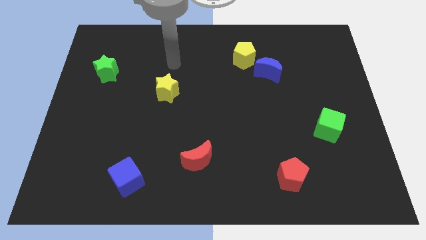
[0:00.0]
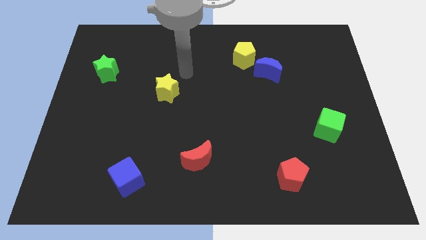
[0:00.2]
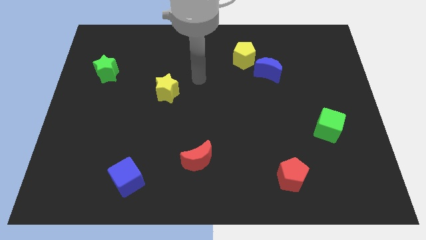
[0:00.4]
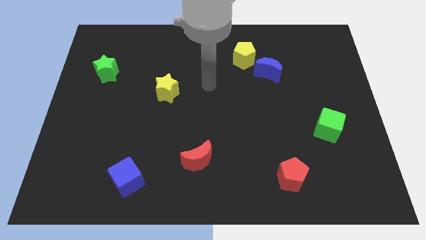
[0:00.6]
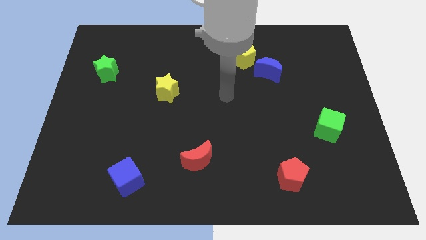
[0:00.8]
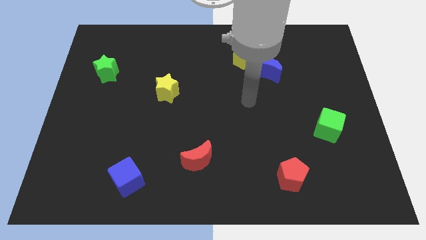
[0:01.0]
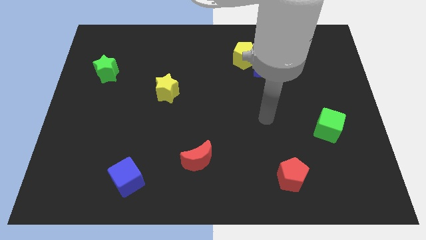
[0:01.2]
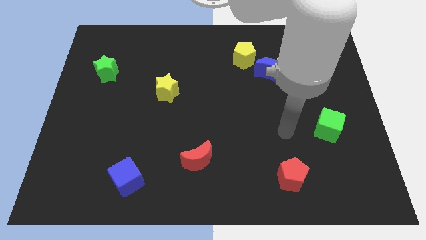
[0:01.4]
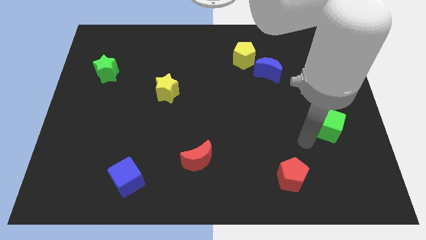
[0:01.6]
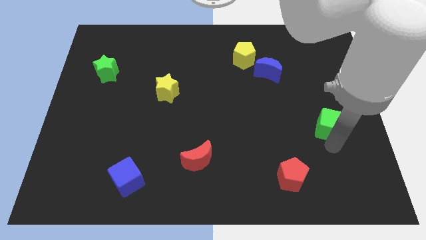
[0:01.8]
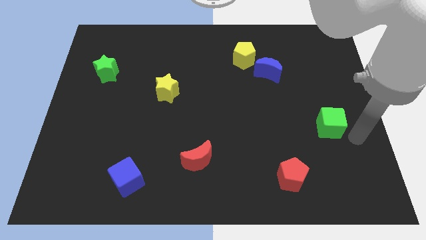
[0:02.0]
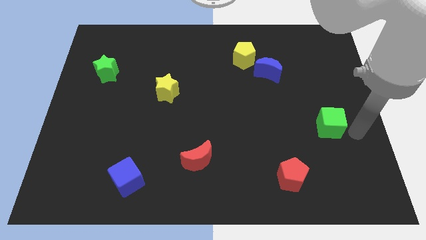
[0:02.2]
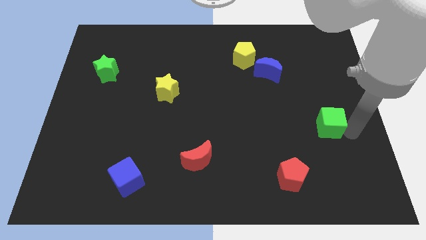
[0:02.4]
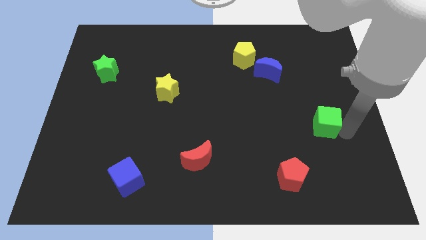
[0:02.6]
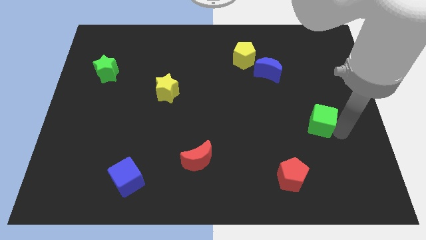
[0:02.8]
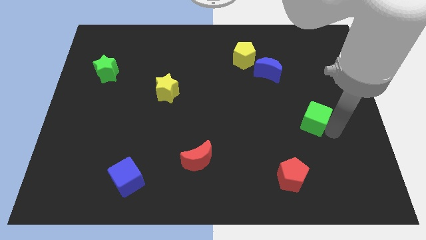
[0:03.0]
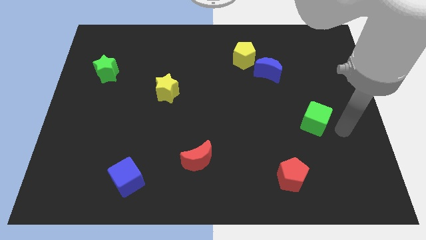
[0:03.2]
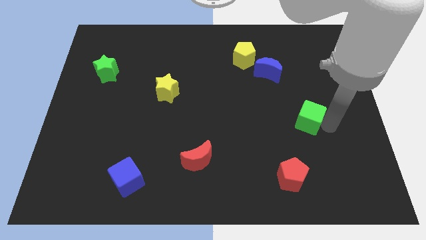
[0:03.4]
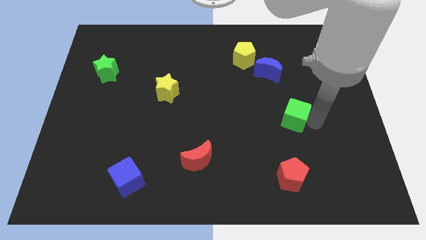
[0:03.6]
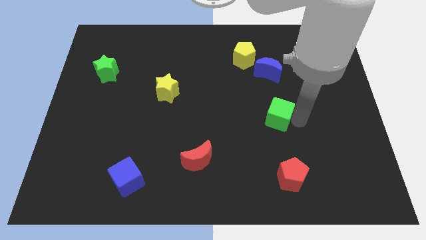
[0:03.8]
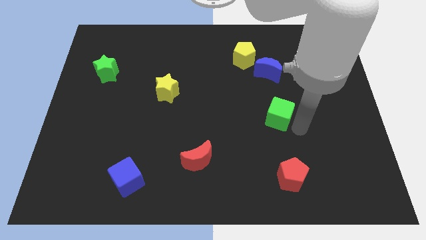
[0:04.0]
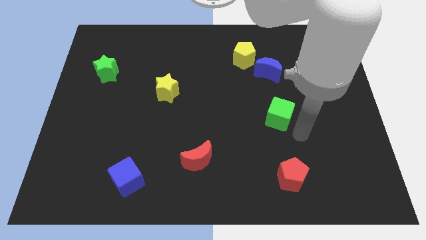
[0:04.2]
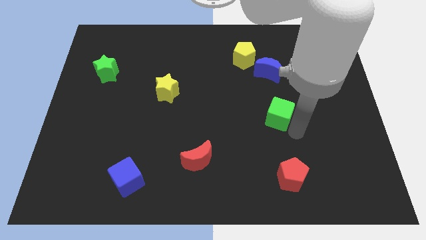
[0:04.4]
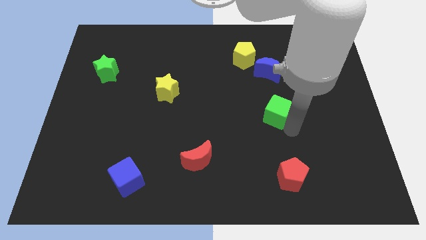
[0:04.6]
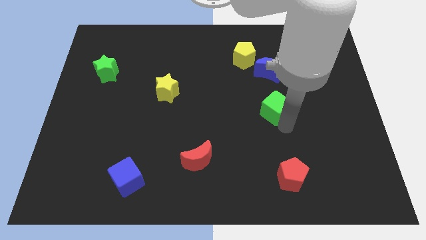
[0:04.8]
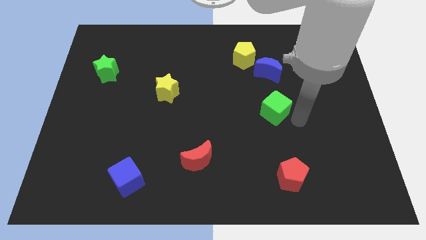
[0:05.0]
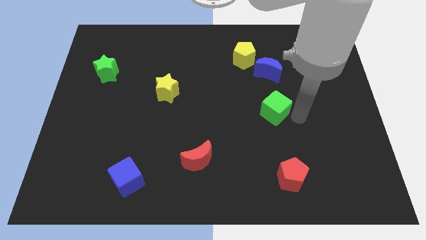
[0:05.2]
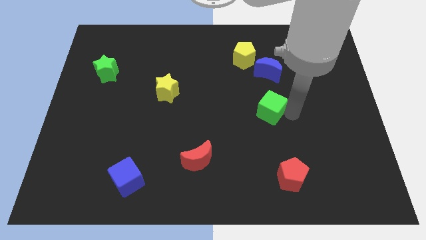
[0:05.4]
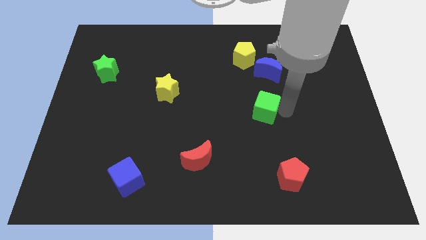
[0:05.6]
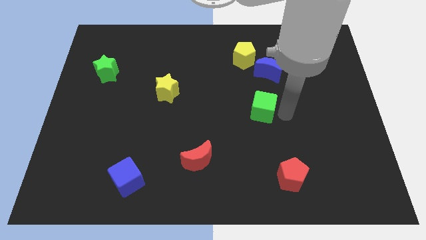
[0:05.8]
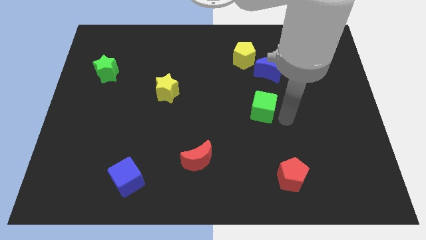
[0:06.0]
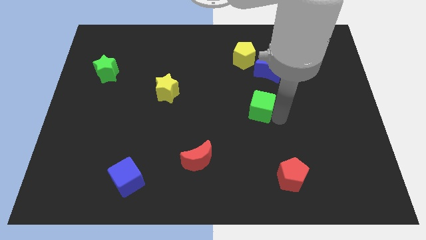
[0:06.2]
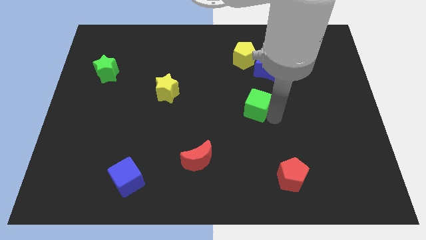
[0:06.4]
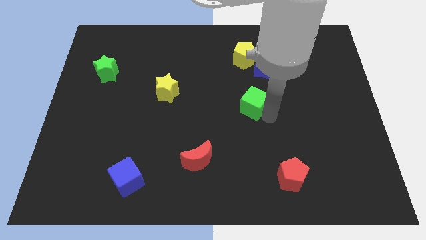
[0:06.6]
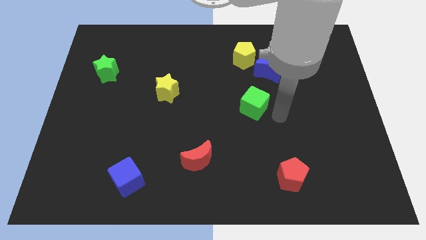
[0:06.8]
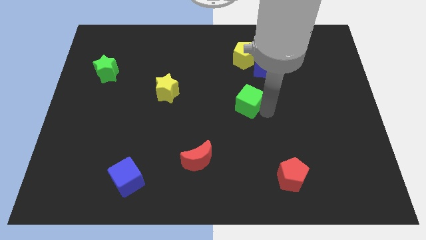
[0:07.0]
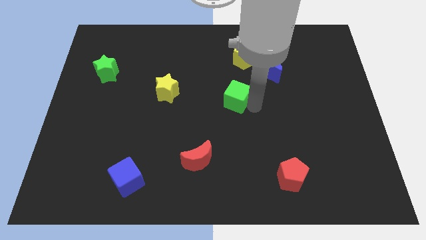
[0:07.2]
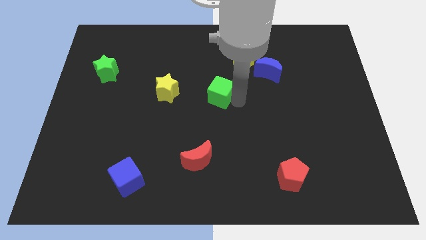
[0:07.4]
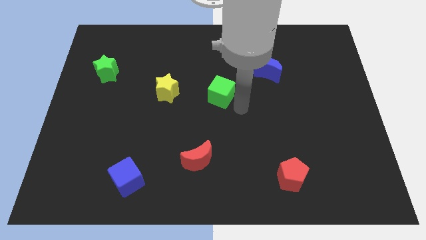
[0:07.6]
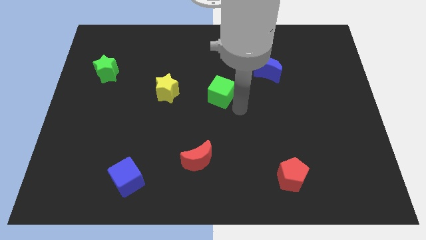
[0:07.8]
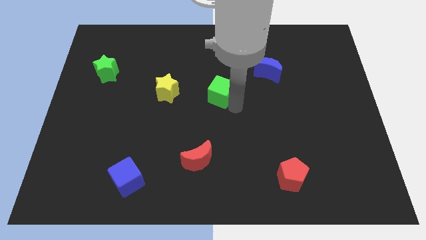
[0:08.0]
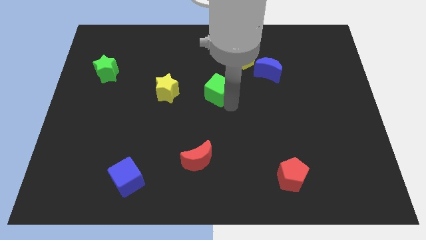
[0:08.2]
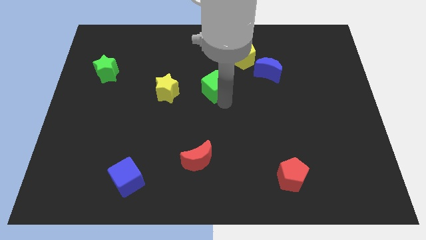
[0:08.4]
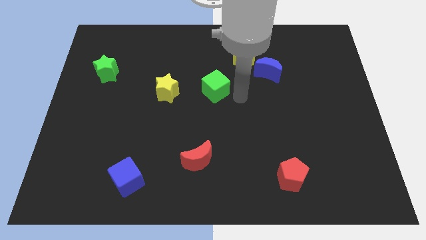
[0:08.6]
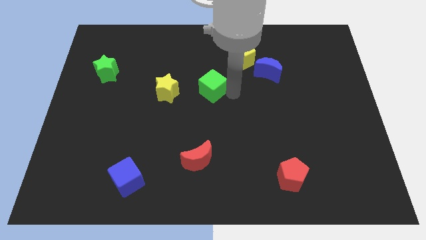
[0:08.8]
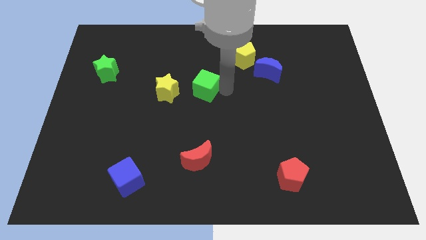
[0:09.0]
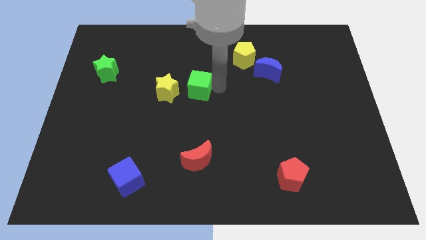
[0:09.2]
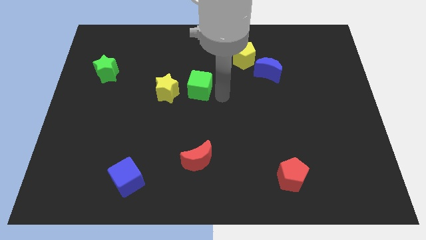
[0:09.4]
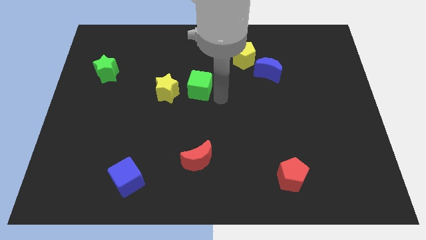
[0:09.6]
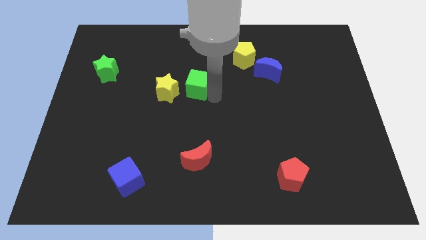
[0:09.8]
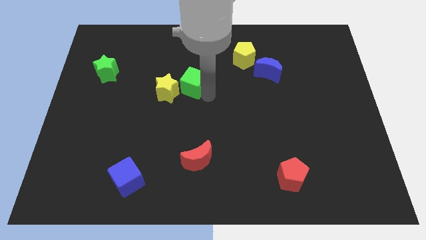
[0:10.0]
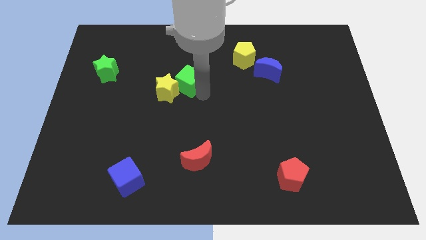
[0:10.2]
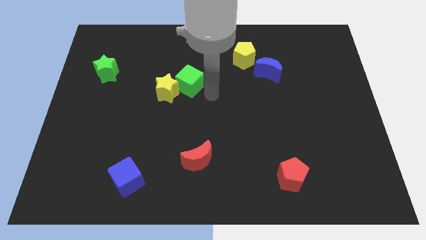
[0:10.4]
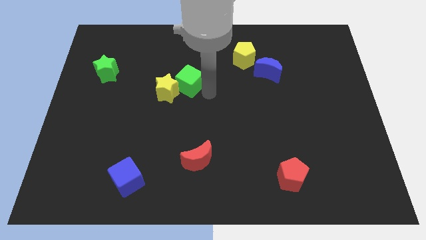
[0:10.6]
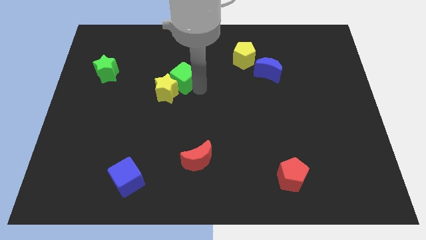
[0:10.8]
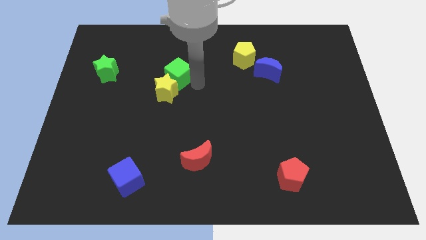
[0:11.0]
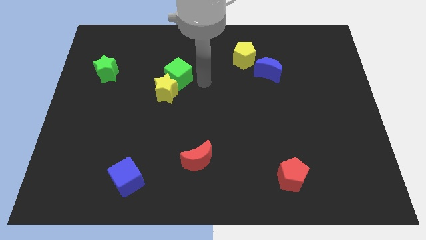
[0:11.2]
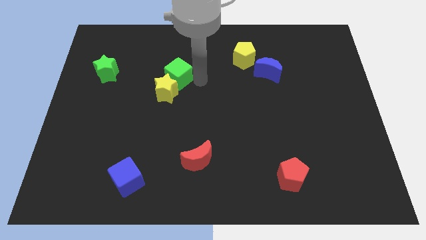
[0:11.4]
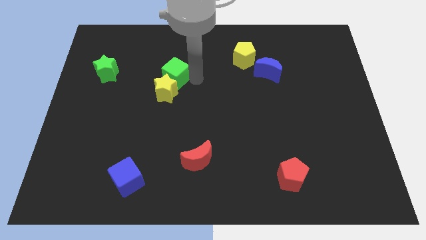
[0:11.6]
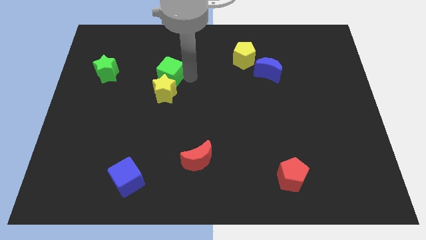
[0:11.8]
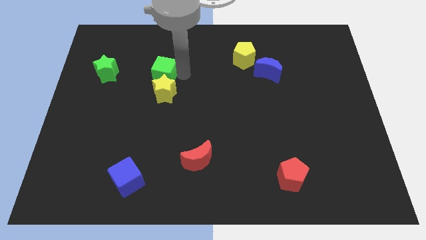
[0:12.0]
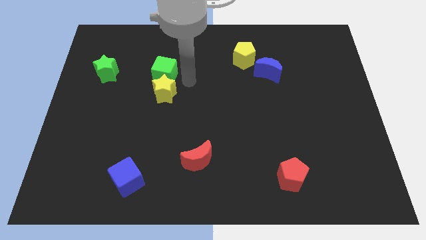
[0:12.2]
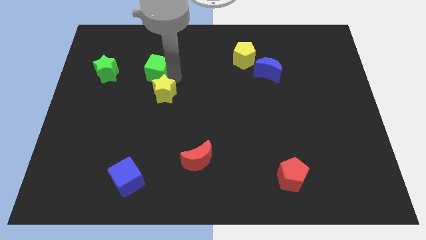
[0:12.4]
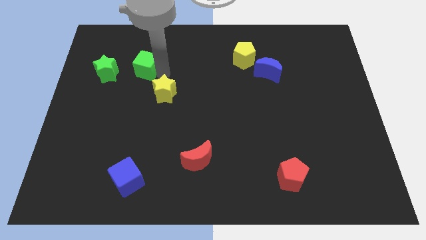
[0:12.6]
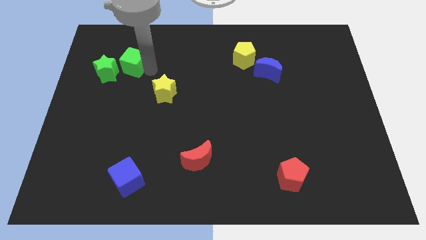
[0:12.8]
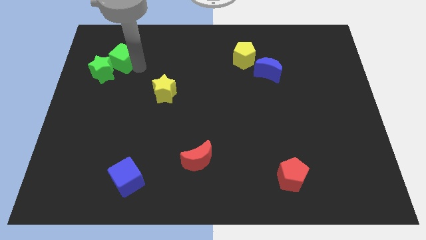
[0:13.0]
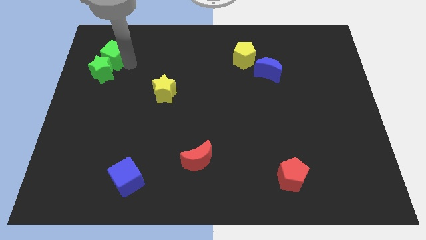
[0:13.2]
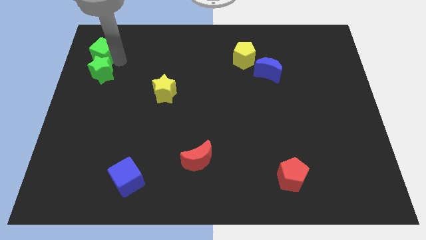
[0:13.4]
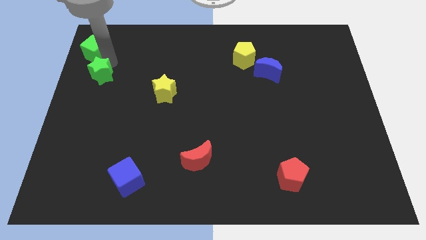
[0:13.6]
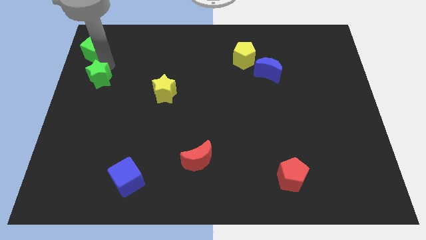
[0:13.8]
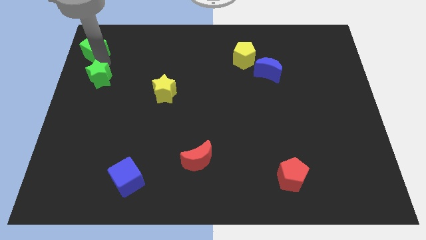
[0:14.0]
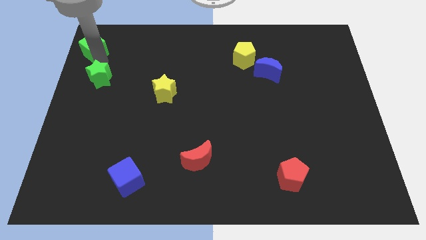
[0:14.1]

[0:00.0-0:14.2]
push the green cube to the top left

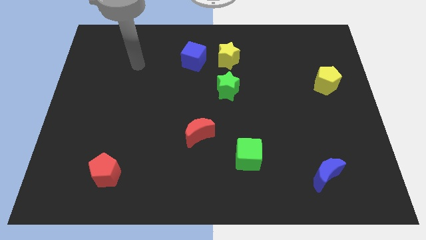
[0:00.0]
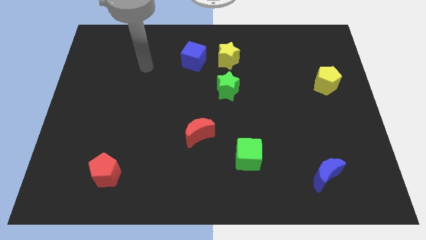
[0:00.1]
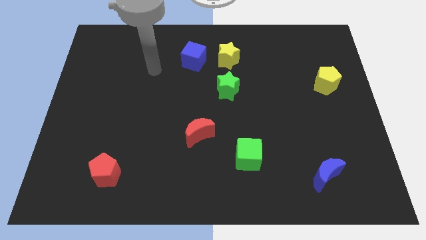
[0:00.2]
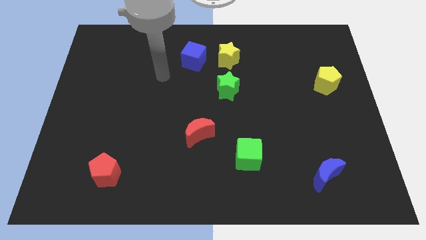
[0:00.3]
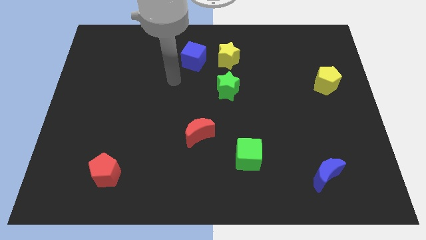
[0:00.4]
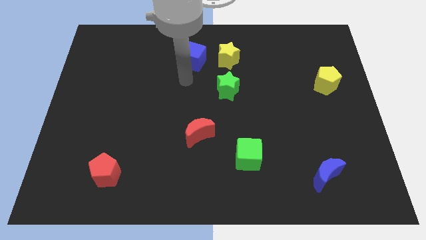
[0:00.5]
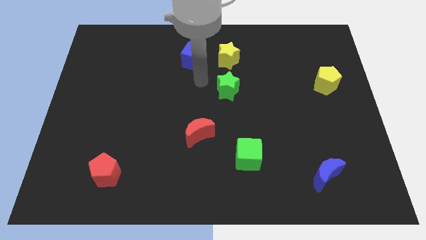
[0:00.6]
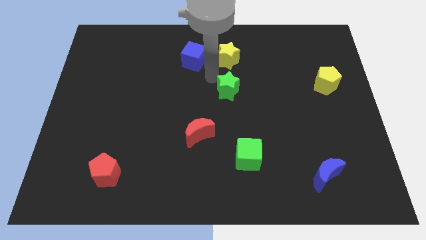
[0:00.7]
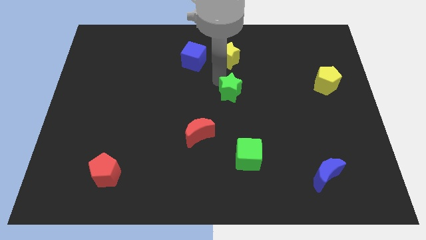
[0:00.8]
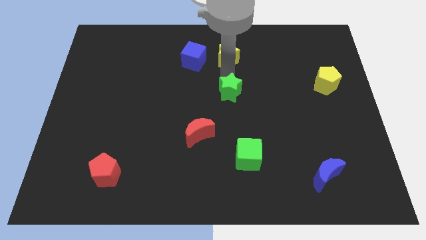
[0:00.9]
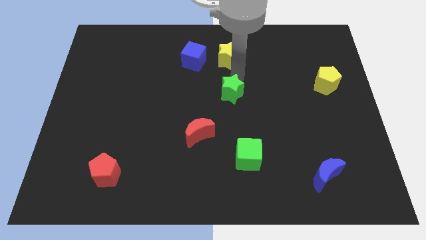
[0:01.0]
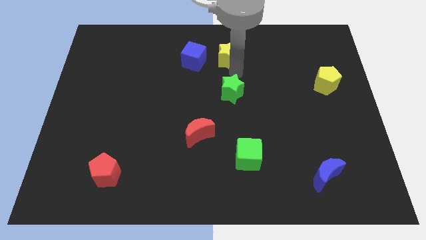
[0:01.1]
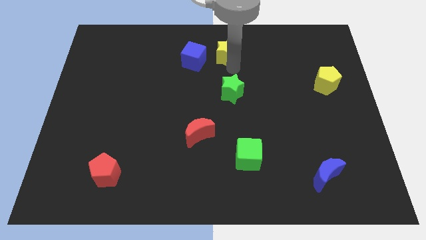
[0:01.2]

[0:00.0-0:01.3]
slide the yellow star to the top
